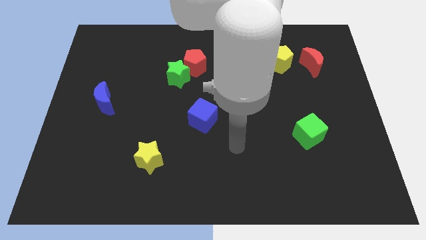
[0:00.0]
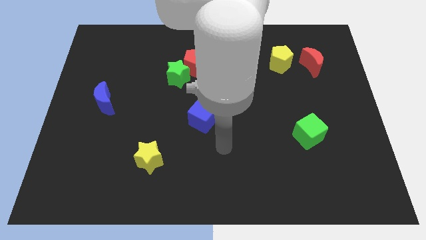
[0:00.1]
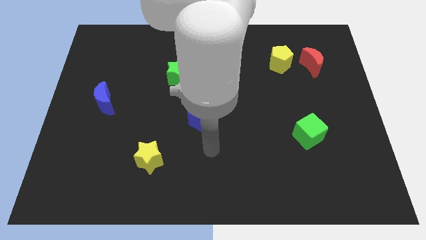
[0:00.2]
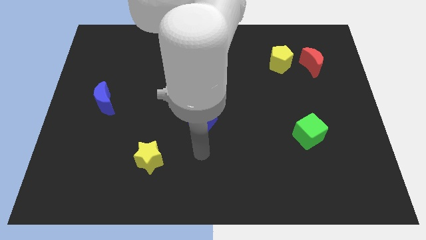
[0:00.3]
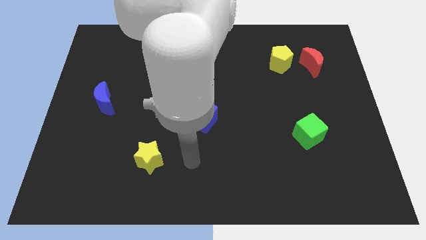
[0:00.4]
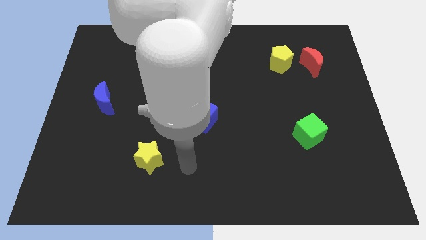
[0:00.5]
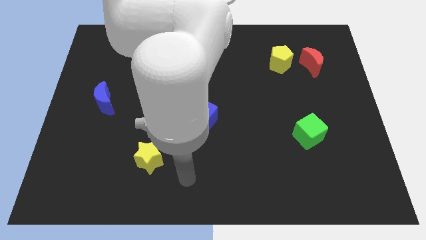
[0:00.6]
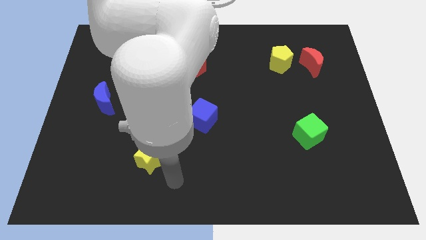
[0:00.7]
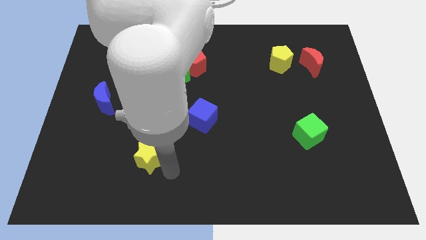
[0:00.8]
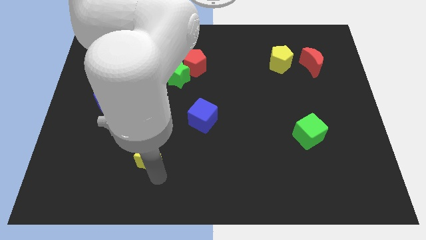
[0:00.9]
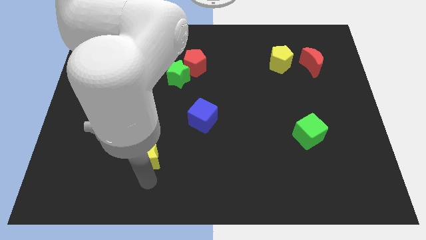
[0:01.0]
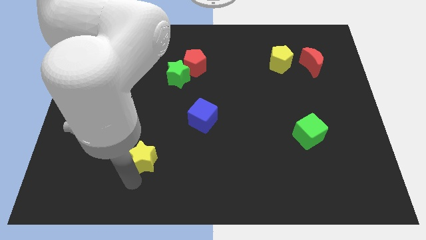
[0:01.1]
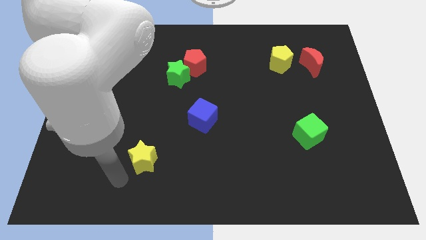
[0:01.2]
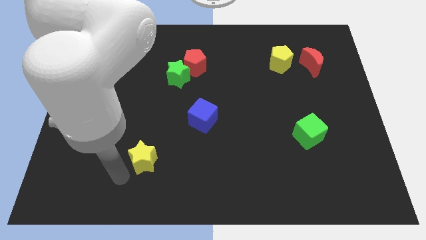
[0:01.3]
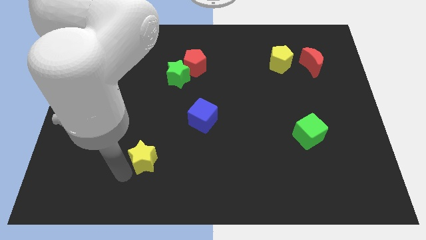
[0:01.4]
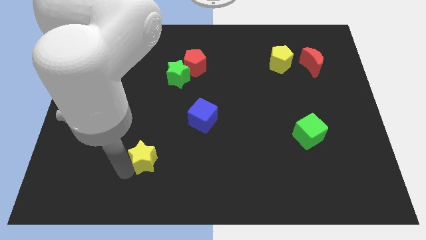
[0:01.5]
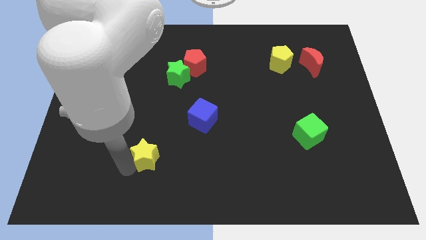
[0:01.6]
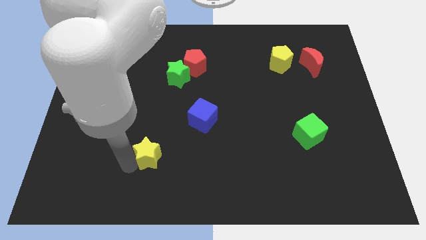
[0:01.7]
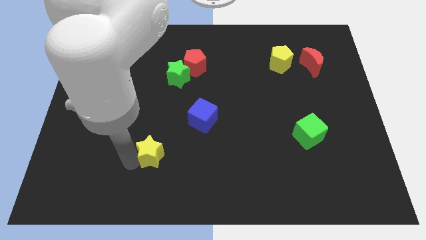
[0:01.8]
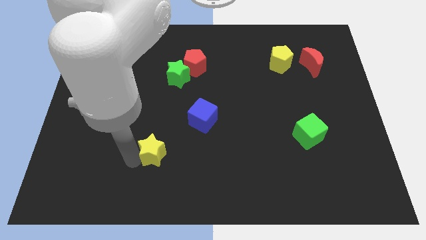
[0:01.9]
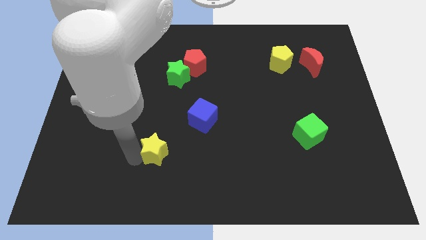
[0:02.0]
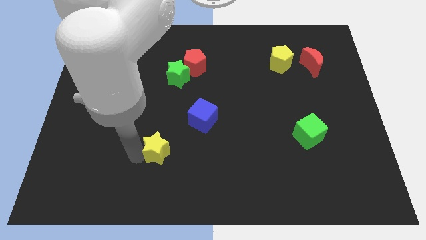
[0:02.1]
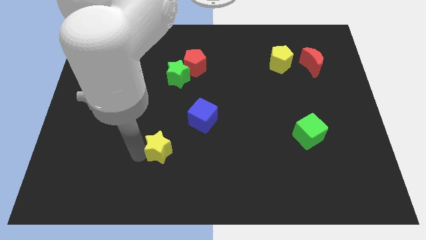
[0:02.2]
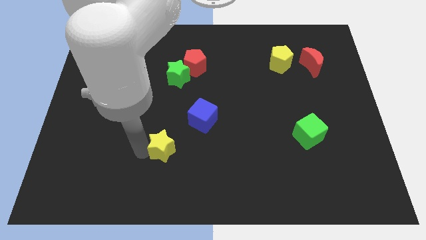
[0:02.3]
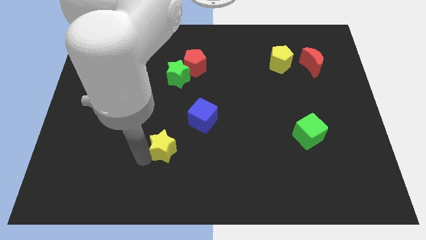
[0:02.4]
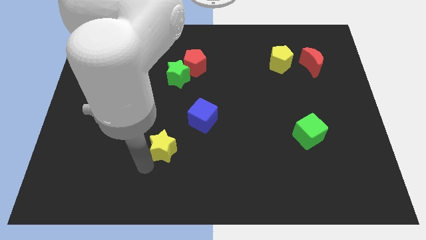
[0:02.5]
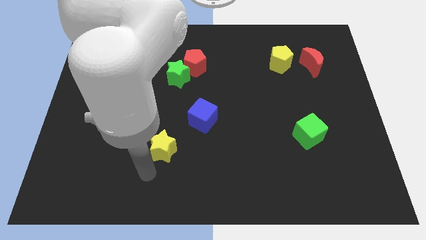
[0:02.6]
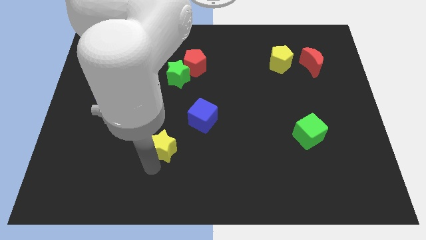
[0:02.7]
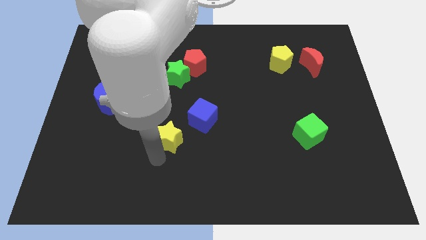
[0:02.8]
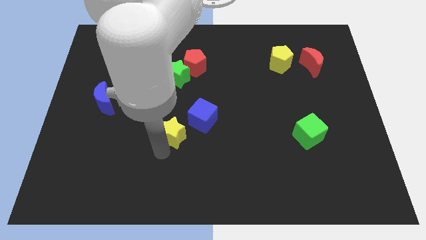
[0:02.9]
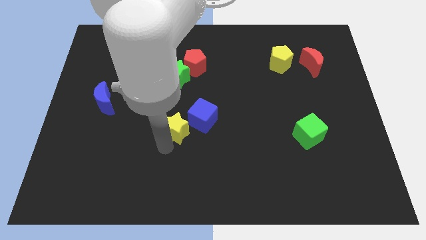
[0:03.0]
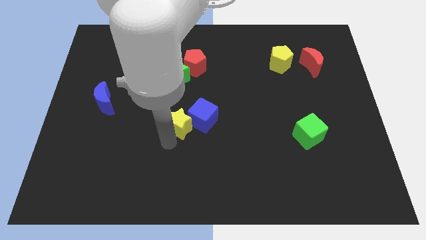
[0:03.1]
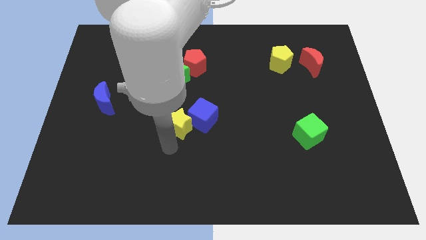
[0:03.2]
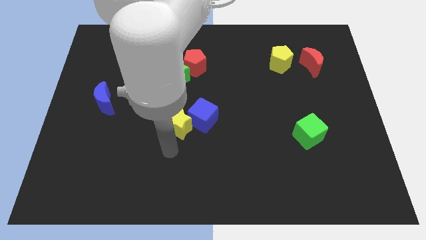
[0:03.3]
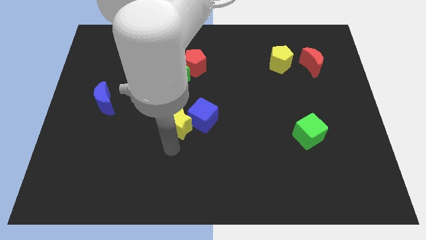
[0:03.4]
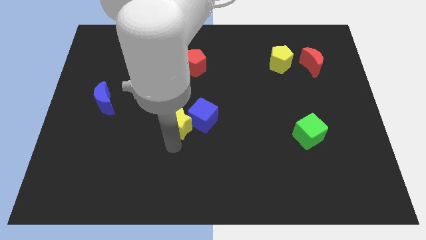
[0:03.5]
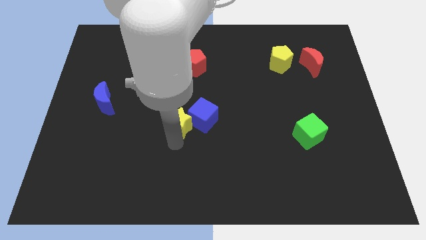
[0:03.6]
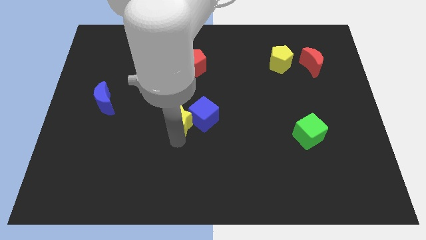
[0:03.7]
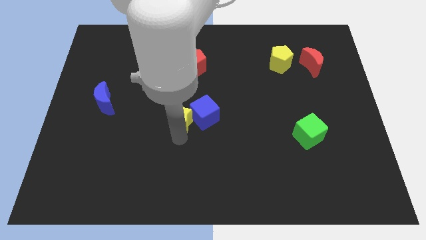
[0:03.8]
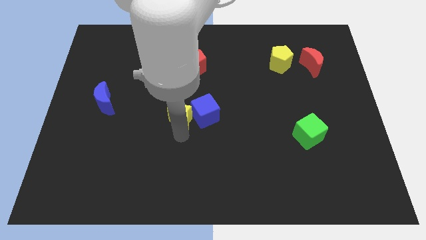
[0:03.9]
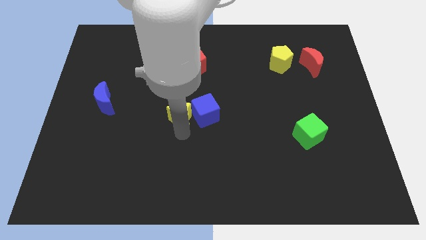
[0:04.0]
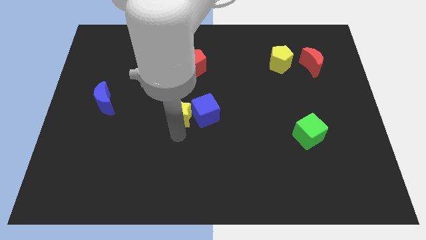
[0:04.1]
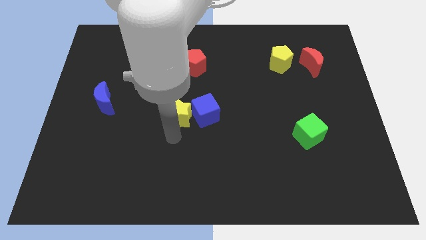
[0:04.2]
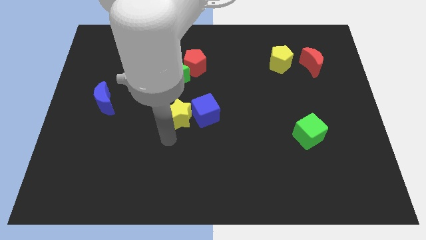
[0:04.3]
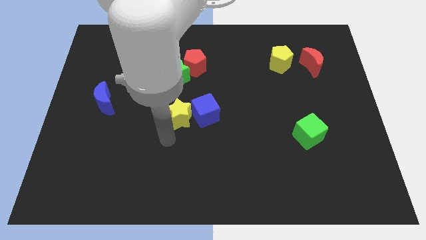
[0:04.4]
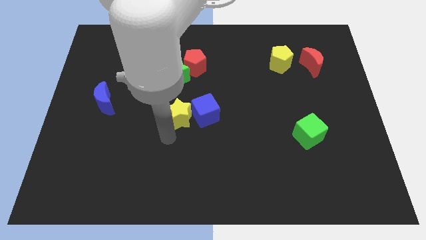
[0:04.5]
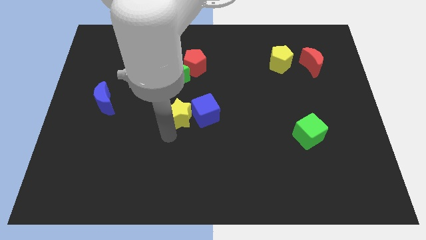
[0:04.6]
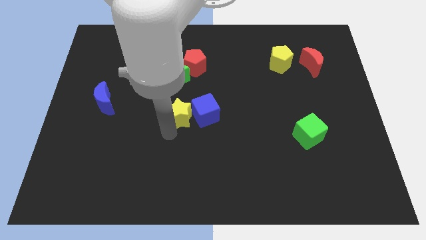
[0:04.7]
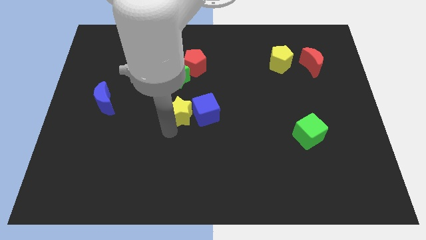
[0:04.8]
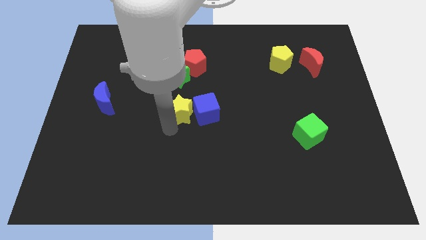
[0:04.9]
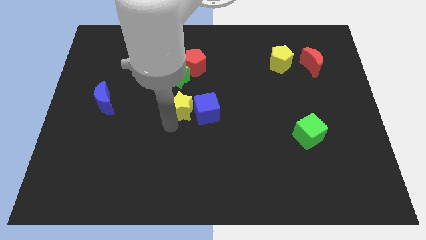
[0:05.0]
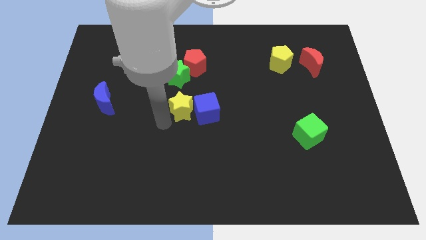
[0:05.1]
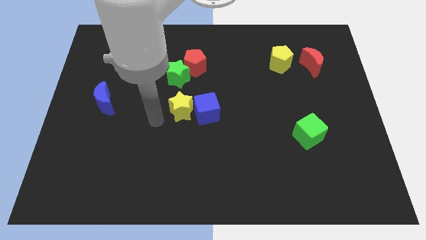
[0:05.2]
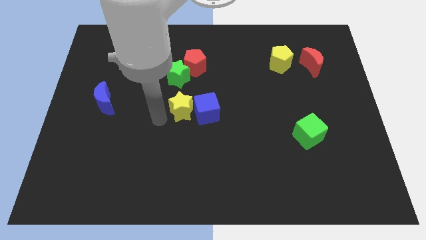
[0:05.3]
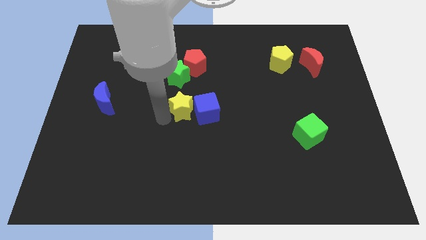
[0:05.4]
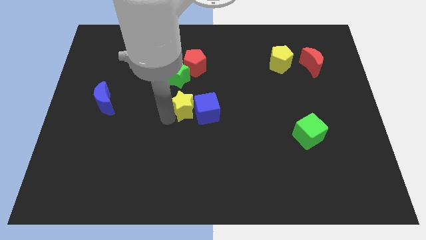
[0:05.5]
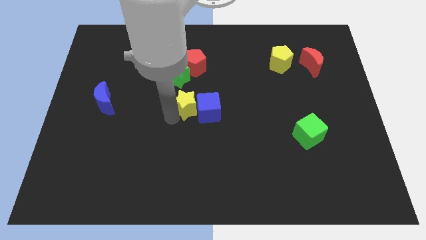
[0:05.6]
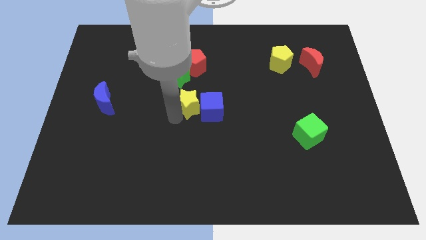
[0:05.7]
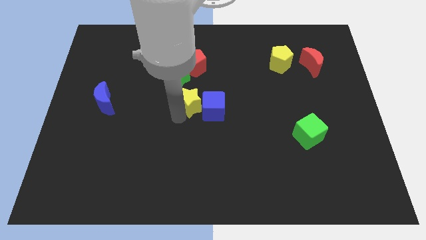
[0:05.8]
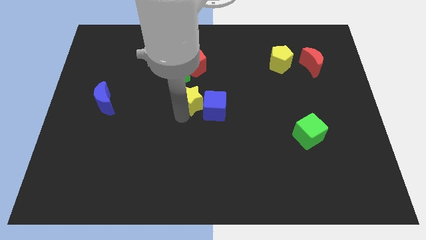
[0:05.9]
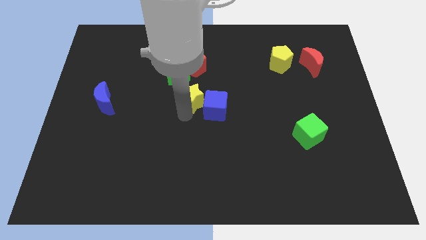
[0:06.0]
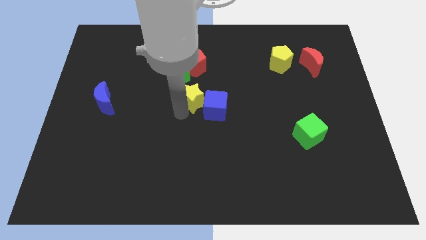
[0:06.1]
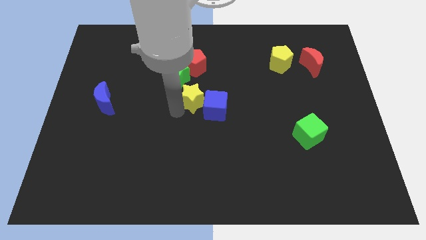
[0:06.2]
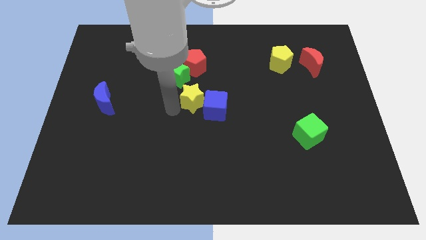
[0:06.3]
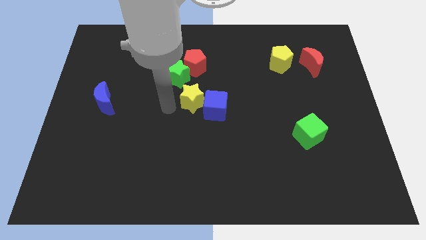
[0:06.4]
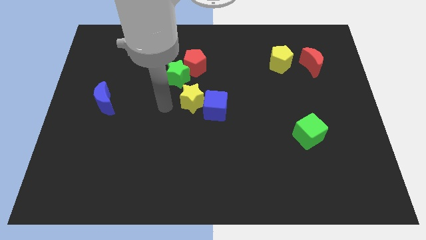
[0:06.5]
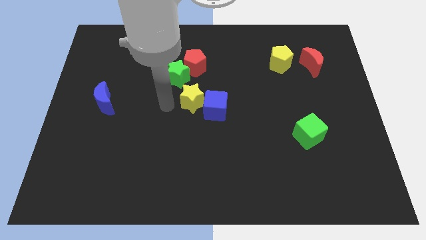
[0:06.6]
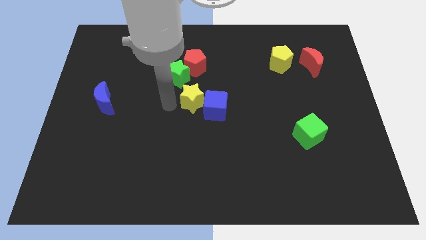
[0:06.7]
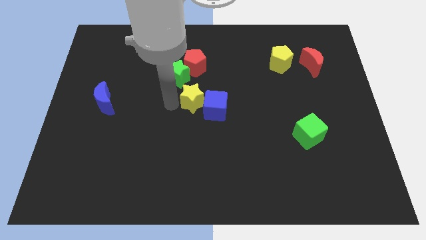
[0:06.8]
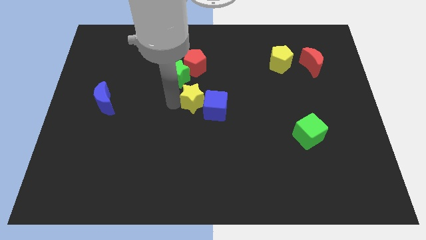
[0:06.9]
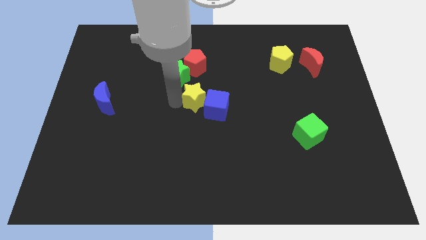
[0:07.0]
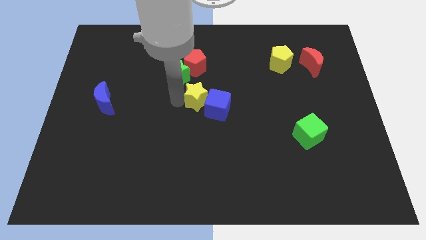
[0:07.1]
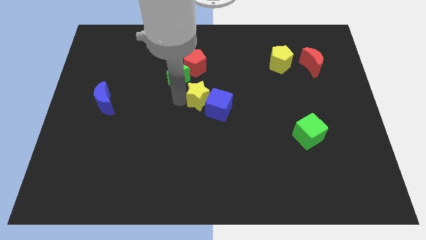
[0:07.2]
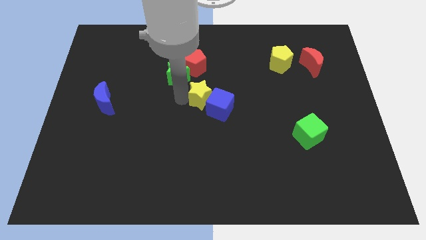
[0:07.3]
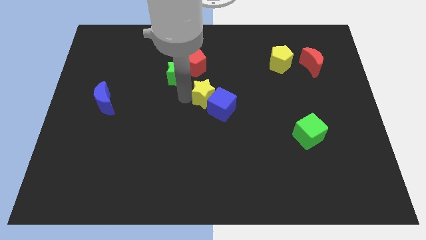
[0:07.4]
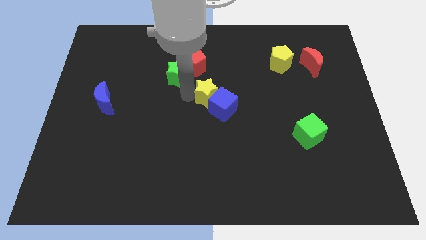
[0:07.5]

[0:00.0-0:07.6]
slide the yellow star up and then right

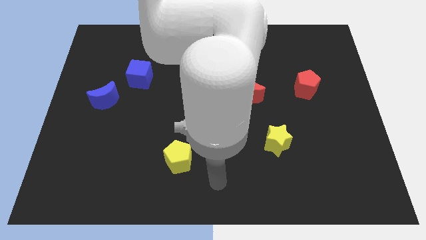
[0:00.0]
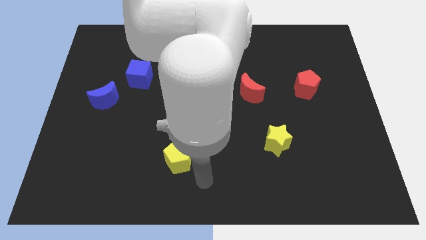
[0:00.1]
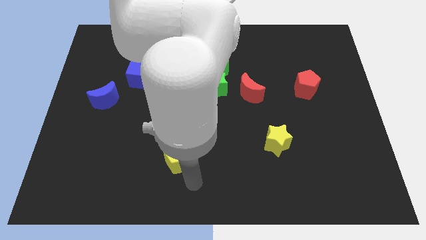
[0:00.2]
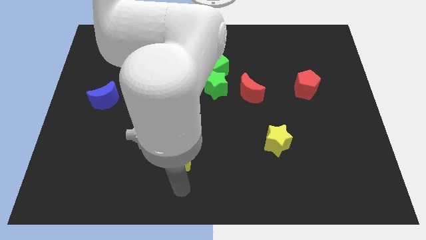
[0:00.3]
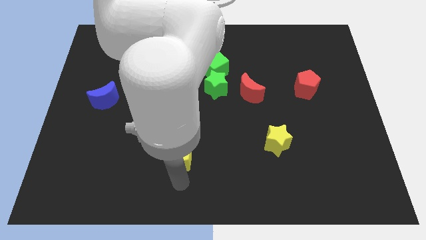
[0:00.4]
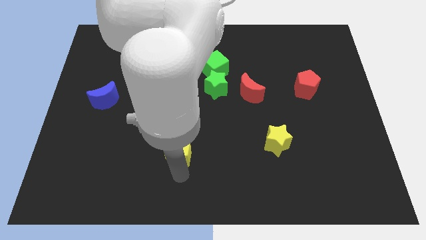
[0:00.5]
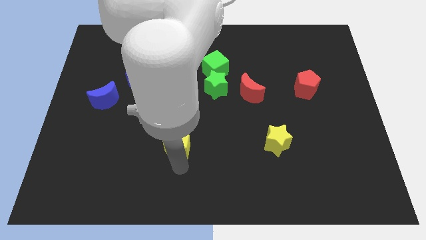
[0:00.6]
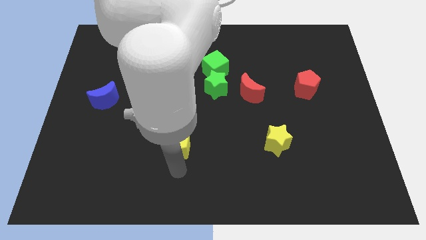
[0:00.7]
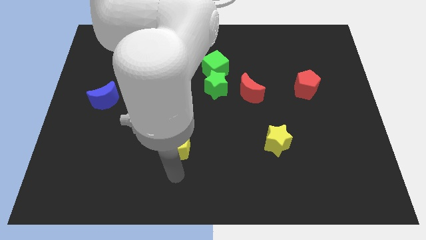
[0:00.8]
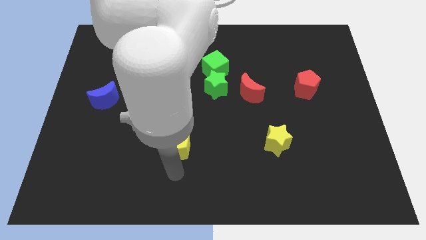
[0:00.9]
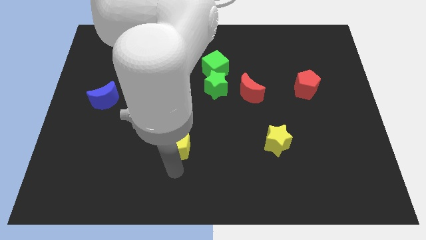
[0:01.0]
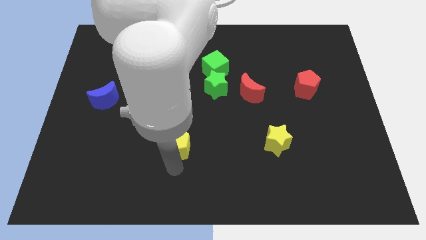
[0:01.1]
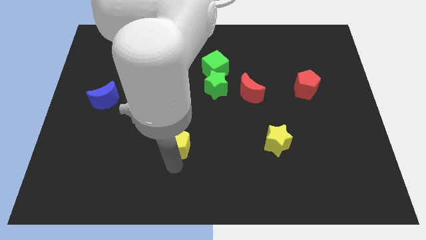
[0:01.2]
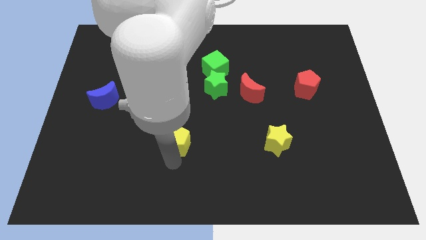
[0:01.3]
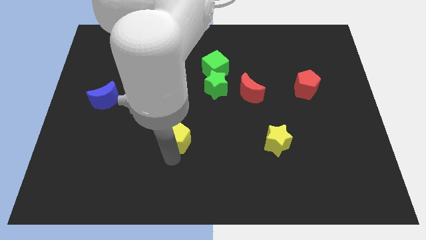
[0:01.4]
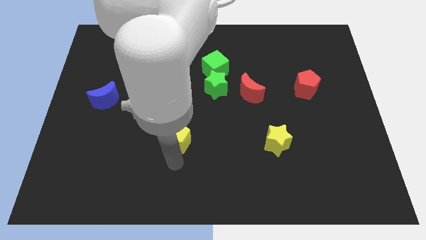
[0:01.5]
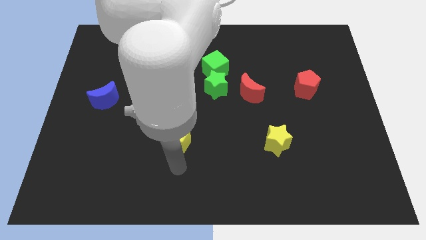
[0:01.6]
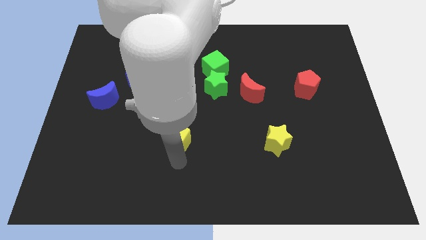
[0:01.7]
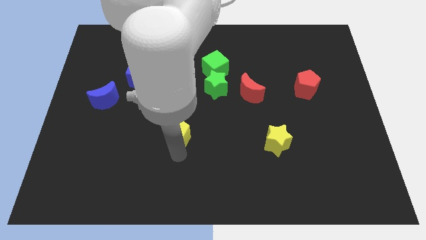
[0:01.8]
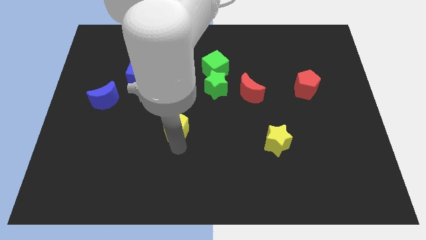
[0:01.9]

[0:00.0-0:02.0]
slightly move the yellow pentagon up
